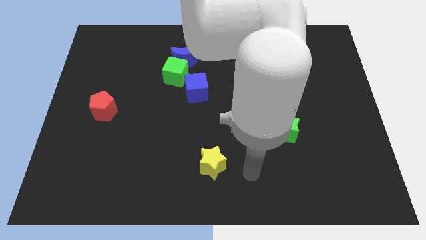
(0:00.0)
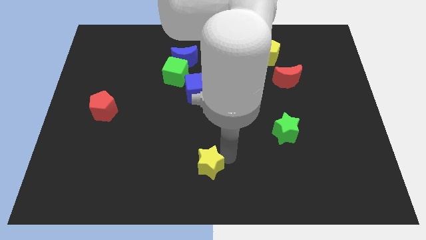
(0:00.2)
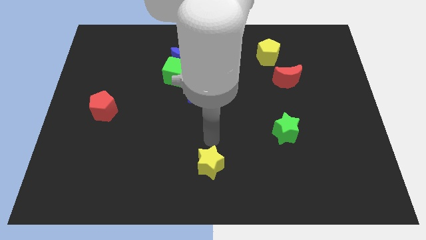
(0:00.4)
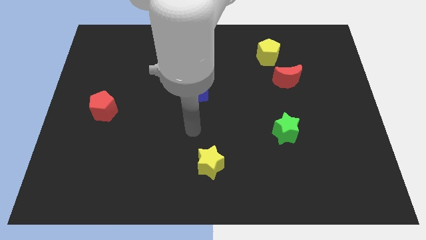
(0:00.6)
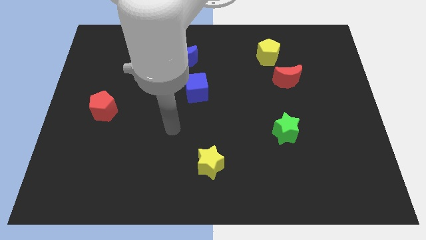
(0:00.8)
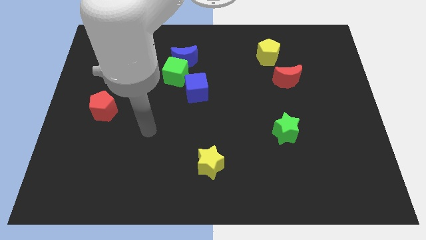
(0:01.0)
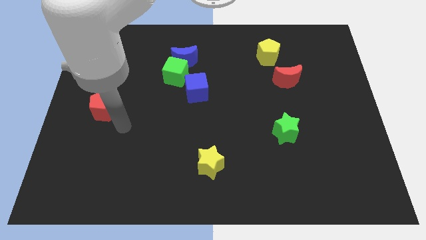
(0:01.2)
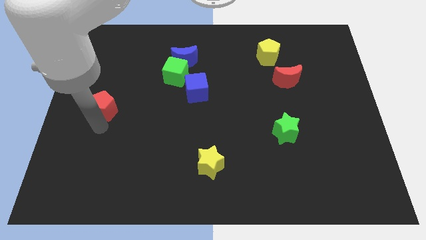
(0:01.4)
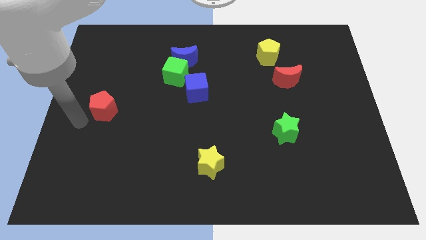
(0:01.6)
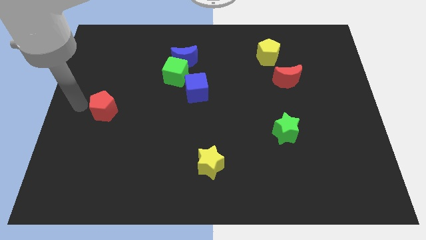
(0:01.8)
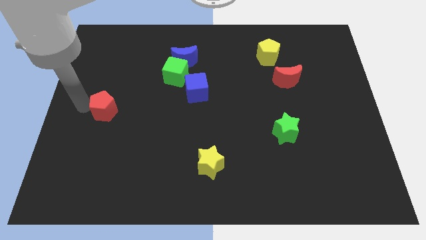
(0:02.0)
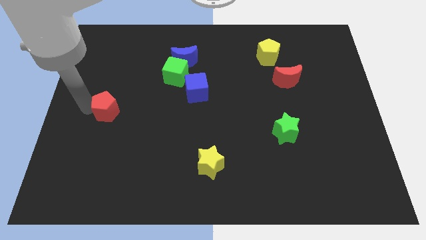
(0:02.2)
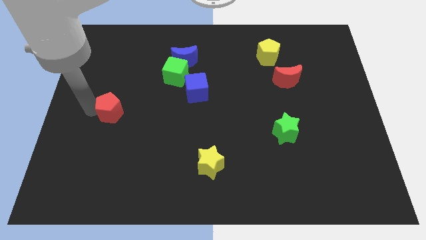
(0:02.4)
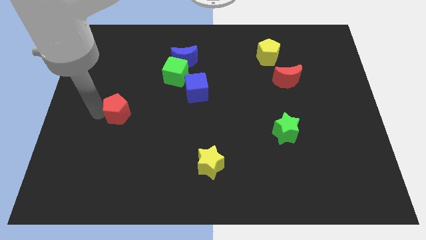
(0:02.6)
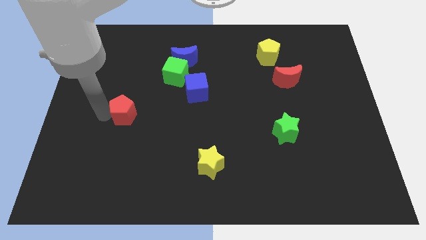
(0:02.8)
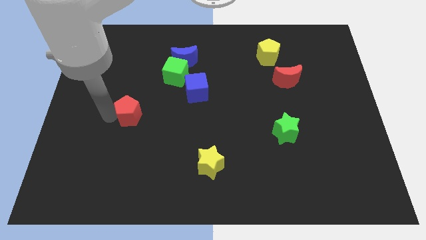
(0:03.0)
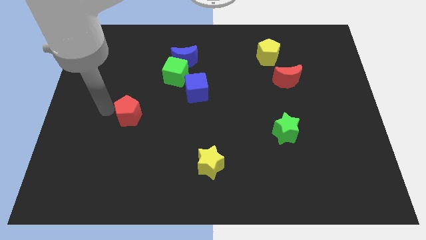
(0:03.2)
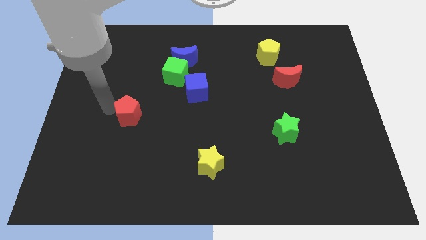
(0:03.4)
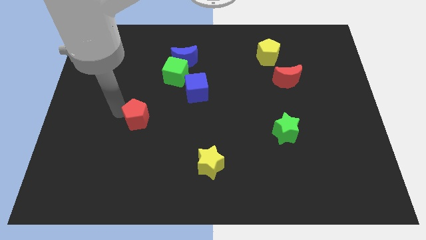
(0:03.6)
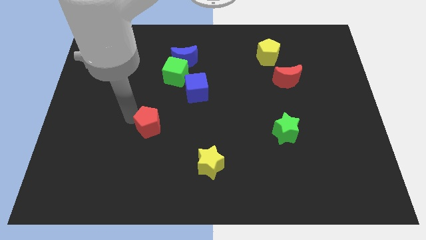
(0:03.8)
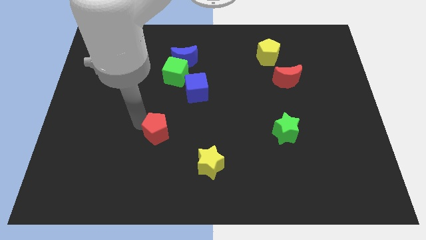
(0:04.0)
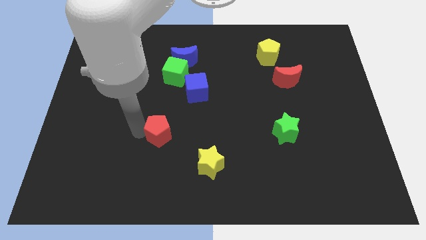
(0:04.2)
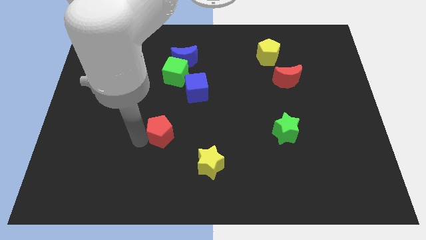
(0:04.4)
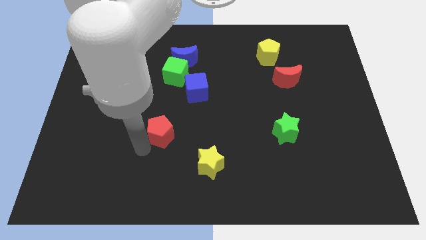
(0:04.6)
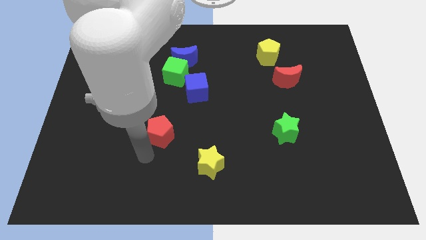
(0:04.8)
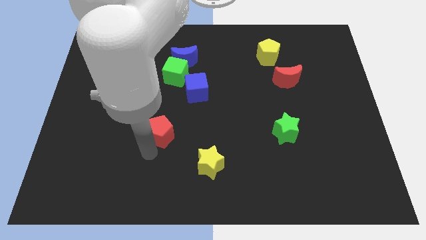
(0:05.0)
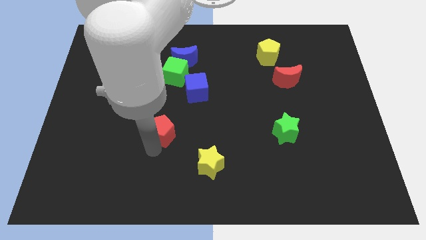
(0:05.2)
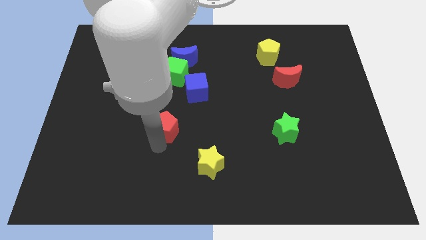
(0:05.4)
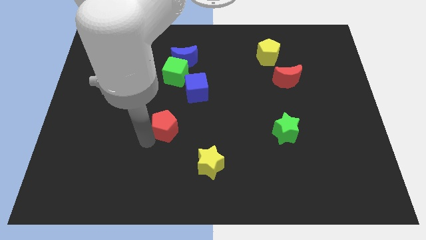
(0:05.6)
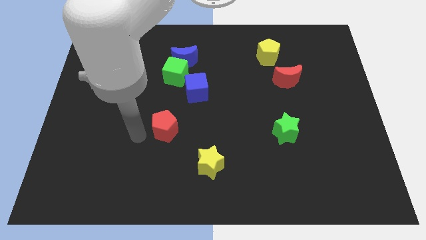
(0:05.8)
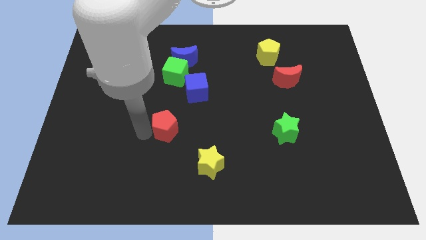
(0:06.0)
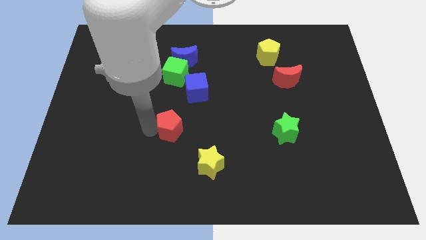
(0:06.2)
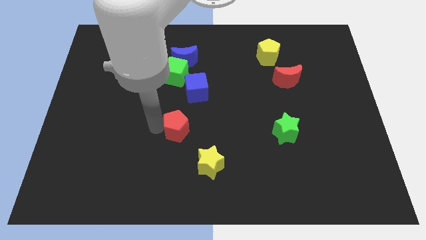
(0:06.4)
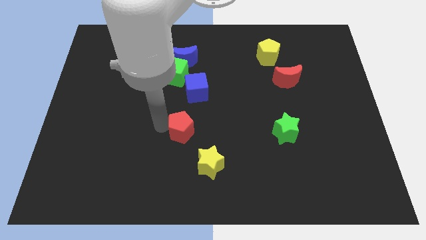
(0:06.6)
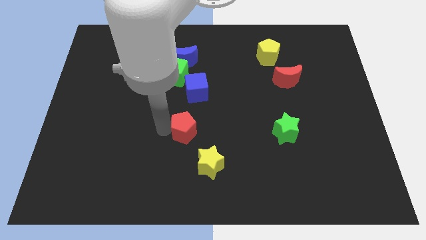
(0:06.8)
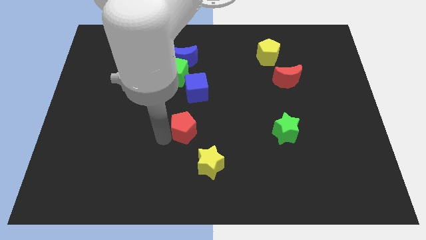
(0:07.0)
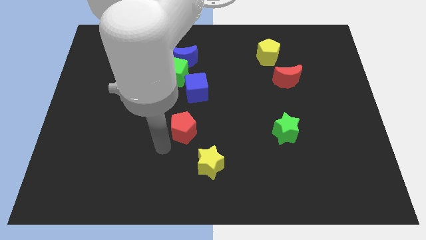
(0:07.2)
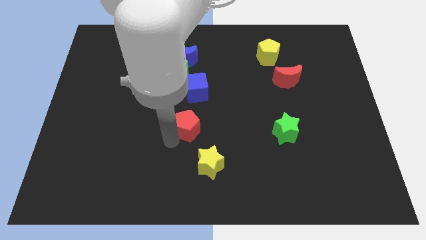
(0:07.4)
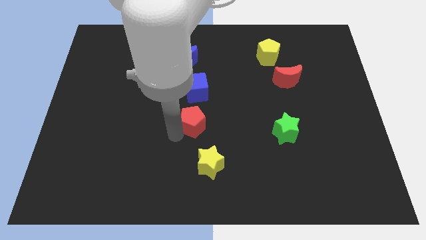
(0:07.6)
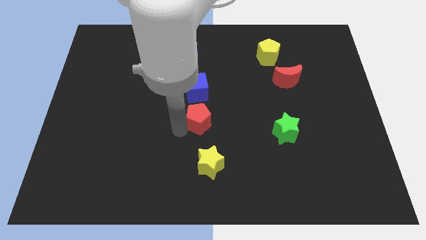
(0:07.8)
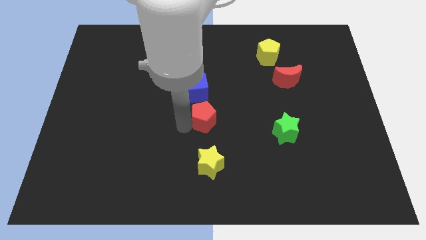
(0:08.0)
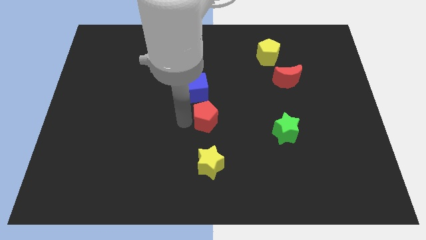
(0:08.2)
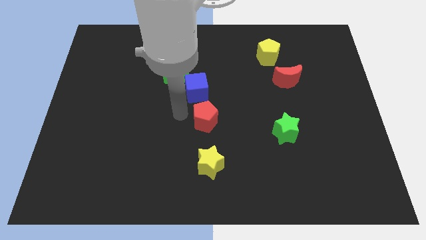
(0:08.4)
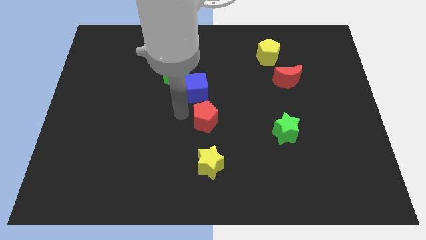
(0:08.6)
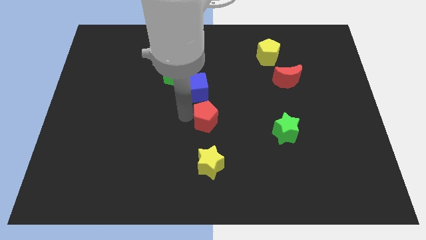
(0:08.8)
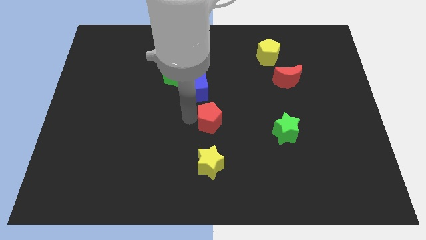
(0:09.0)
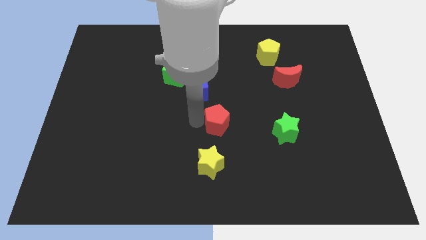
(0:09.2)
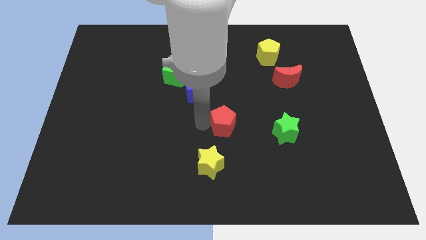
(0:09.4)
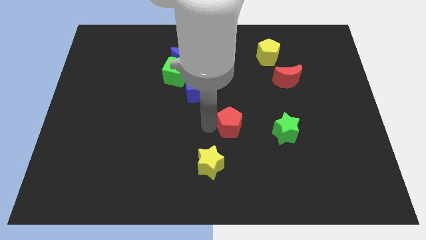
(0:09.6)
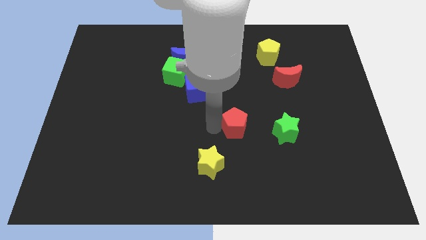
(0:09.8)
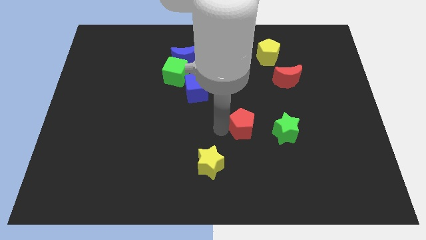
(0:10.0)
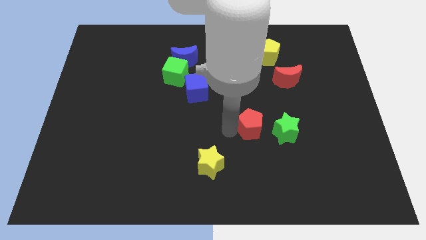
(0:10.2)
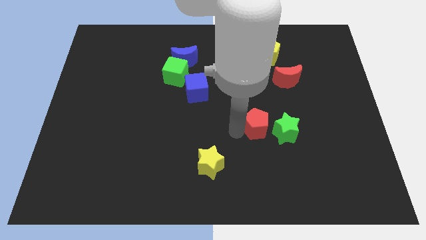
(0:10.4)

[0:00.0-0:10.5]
put the red pentagon towards the green star

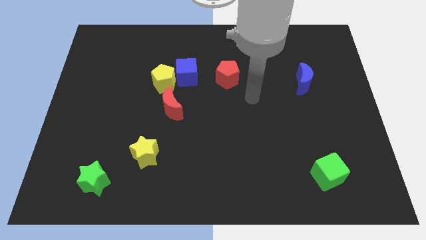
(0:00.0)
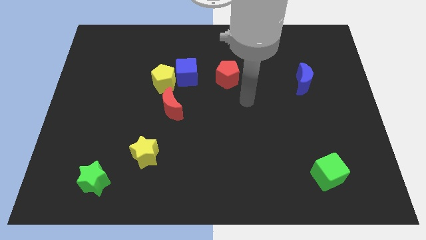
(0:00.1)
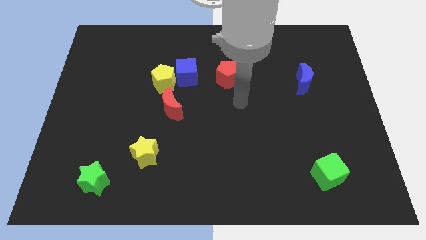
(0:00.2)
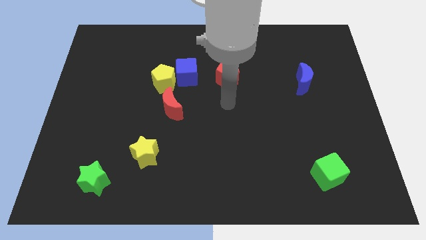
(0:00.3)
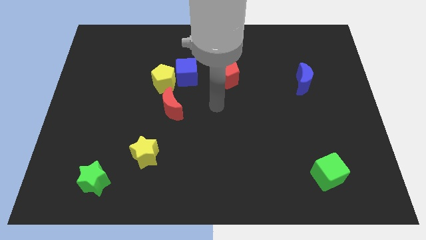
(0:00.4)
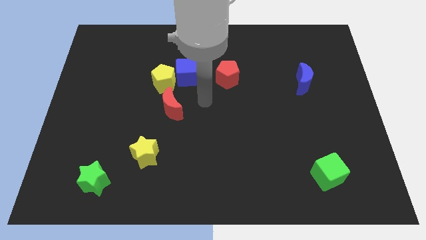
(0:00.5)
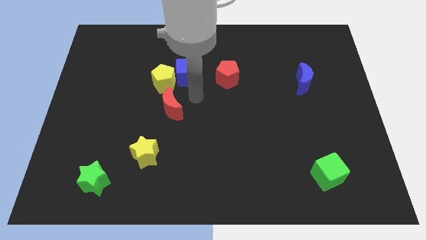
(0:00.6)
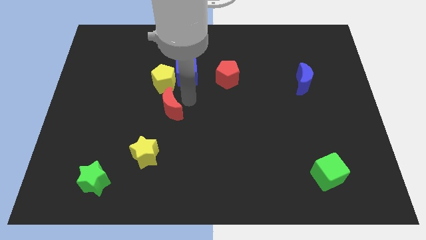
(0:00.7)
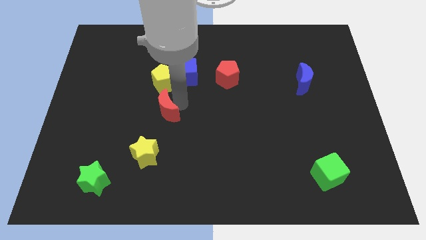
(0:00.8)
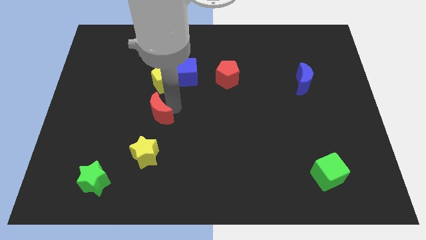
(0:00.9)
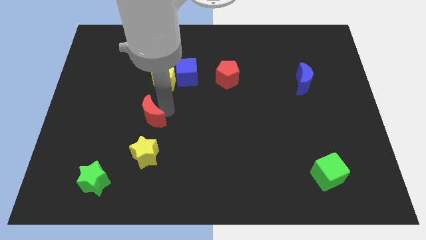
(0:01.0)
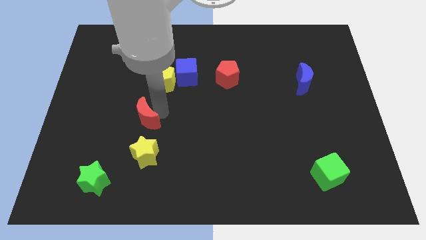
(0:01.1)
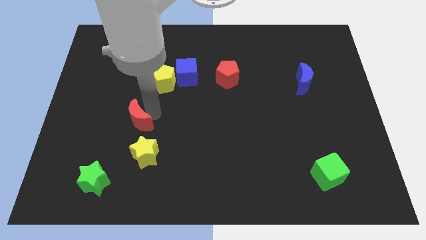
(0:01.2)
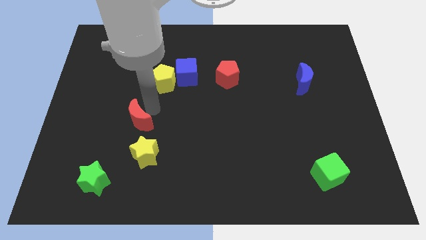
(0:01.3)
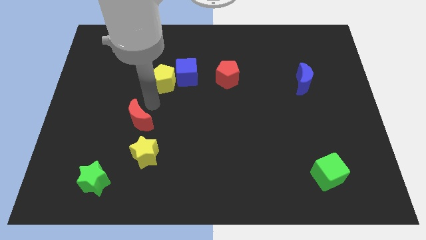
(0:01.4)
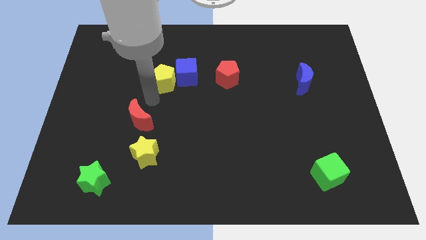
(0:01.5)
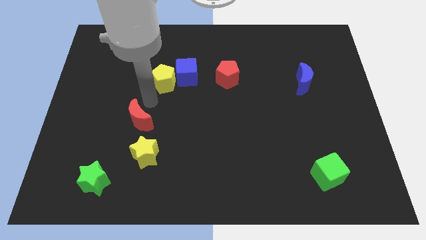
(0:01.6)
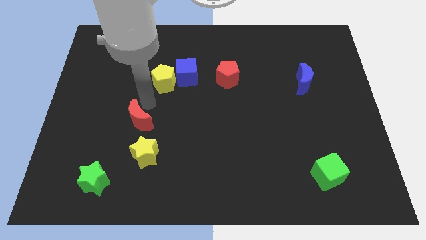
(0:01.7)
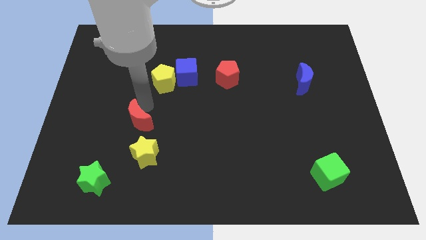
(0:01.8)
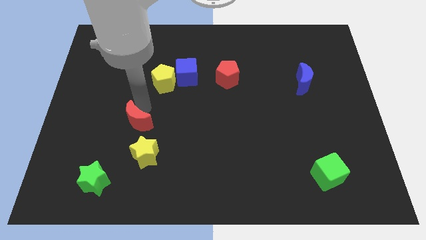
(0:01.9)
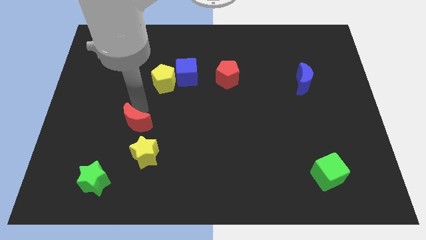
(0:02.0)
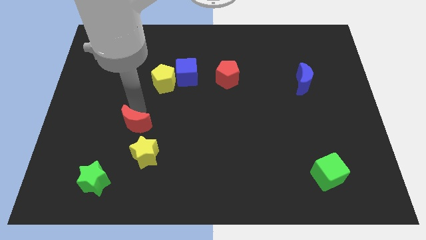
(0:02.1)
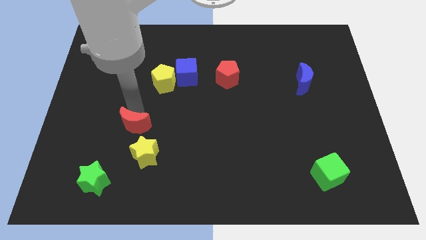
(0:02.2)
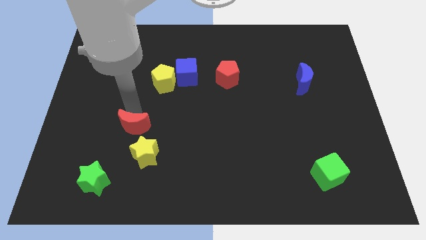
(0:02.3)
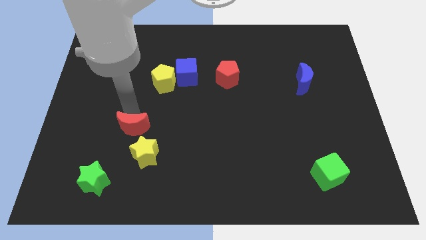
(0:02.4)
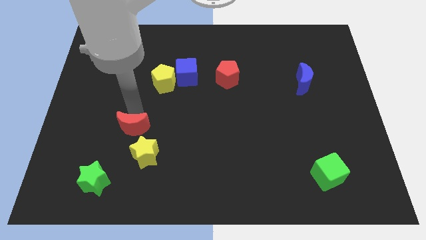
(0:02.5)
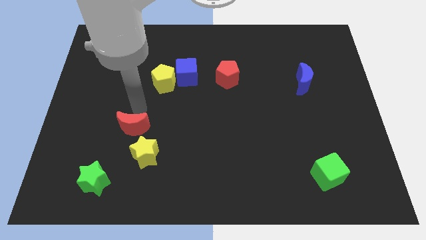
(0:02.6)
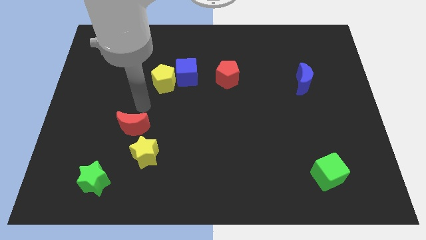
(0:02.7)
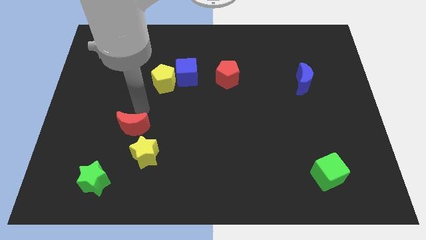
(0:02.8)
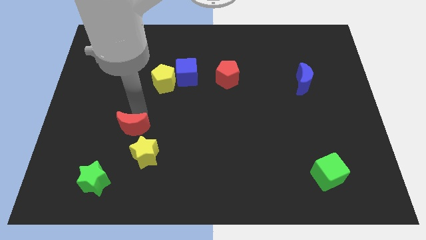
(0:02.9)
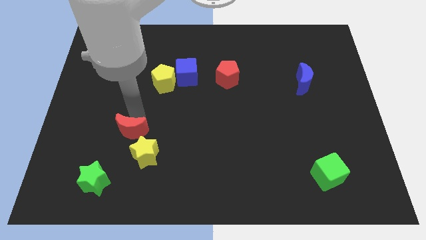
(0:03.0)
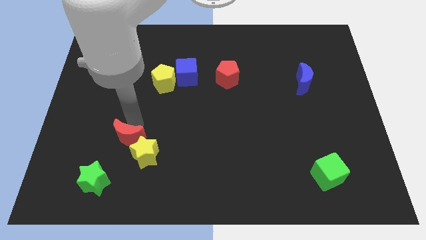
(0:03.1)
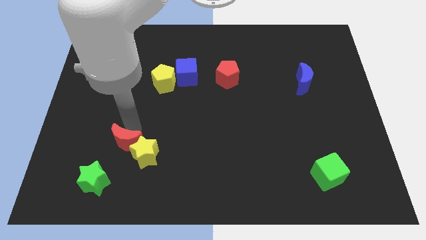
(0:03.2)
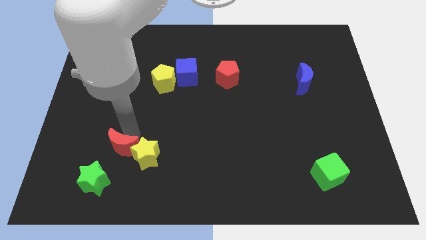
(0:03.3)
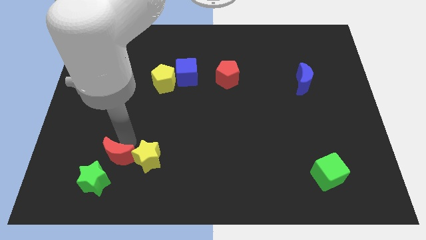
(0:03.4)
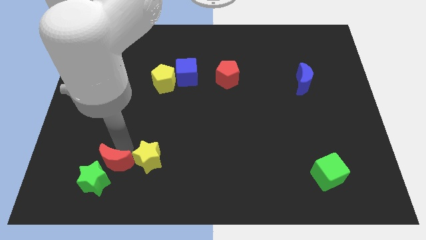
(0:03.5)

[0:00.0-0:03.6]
move the red moon next to the green star
